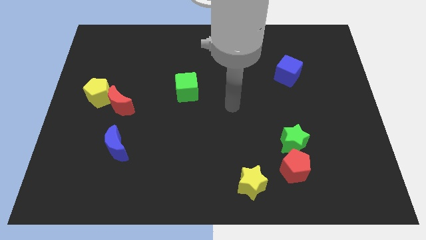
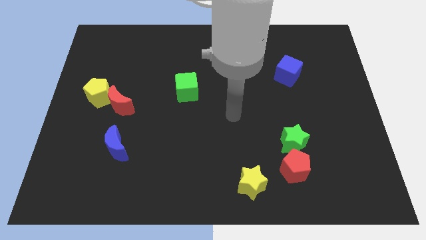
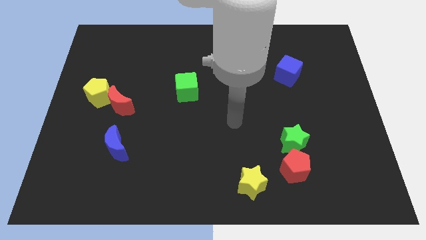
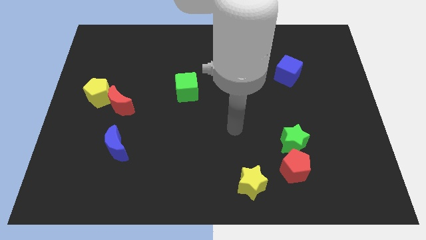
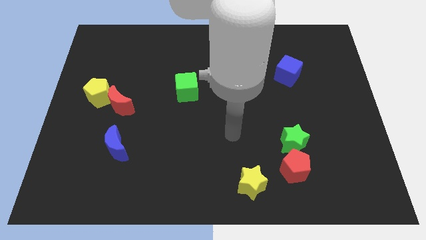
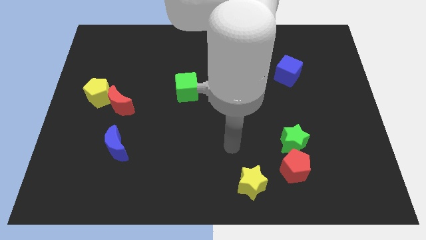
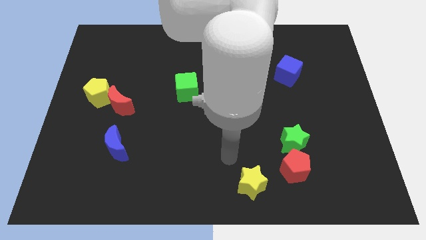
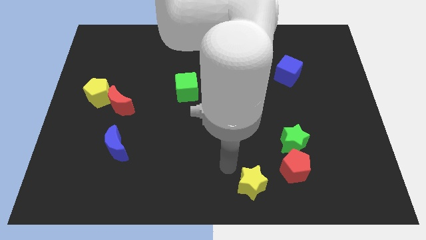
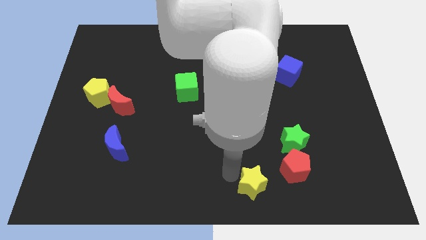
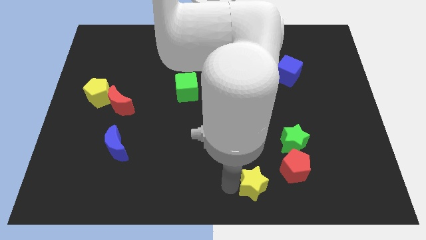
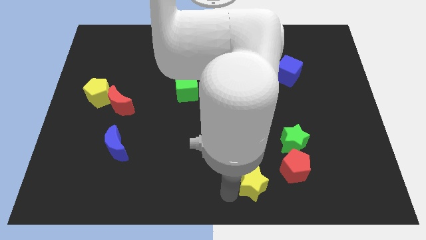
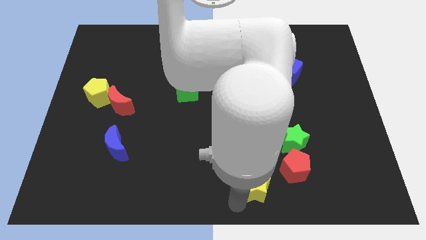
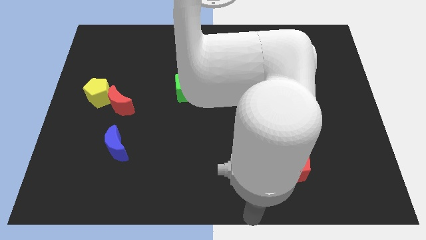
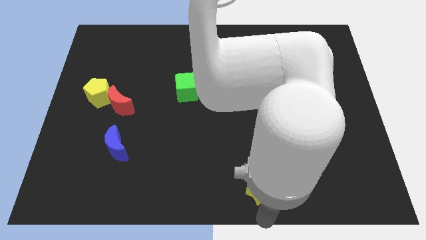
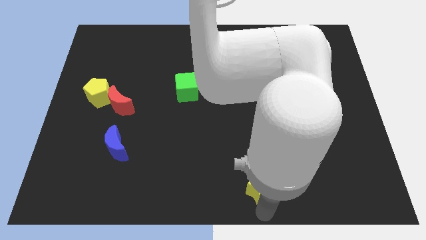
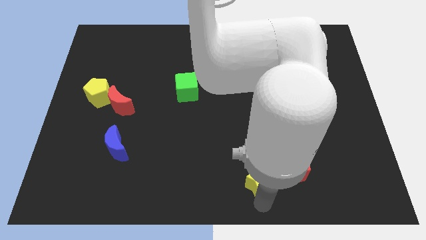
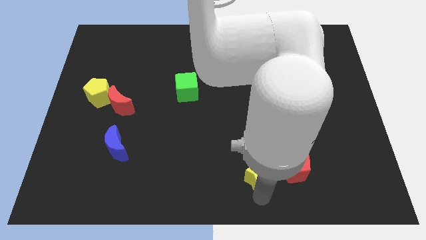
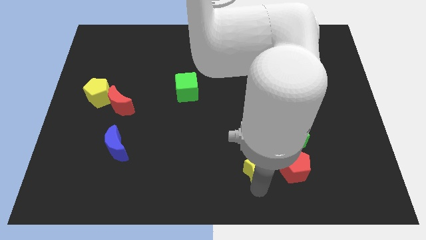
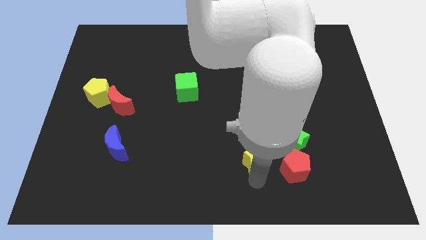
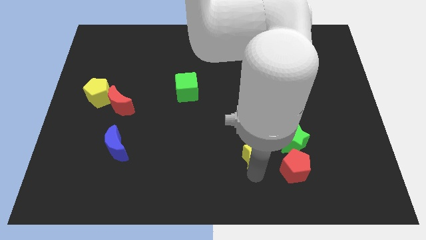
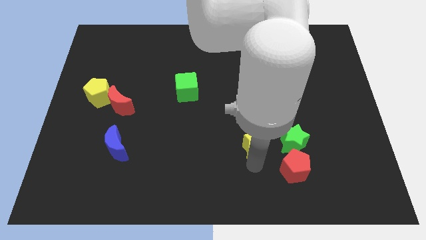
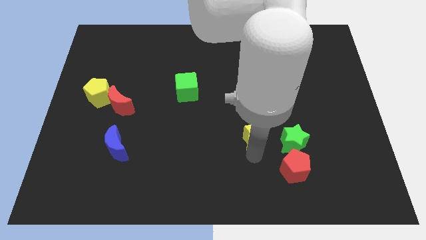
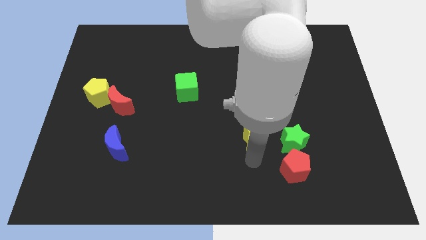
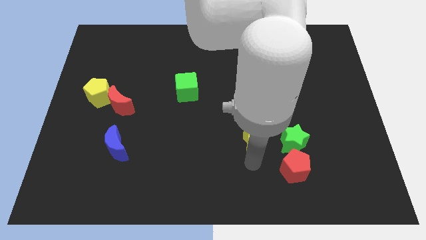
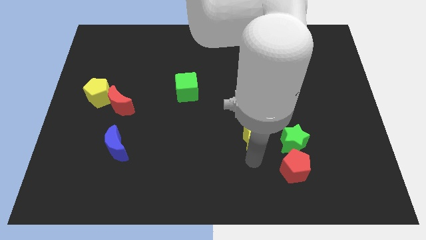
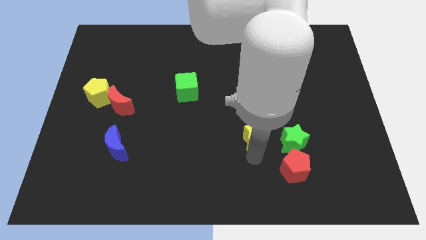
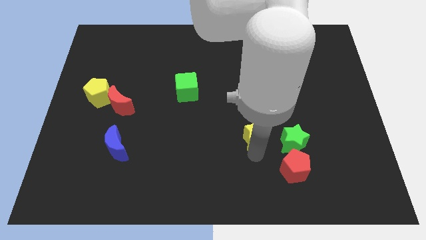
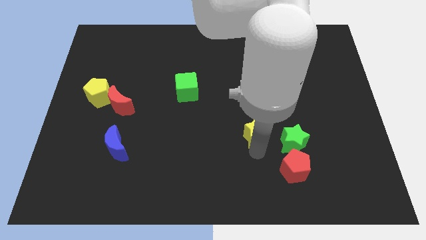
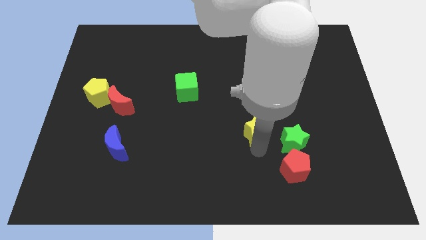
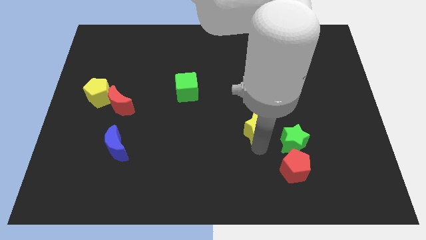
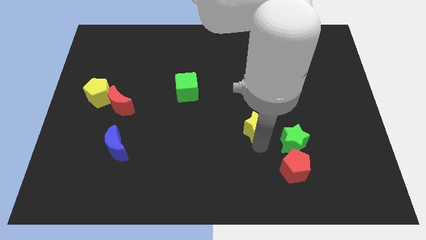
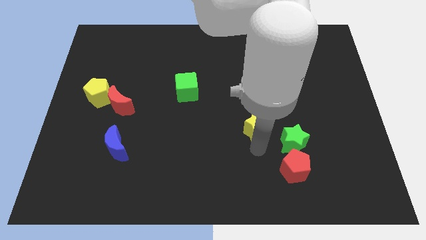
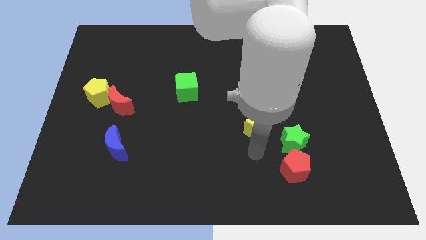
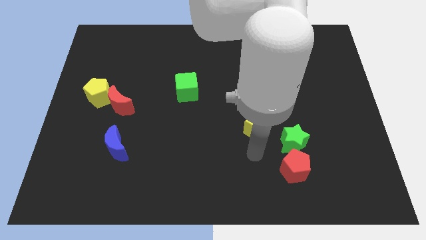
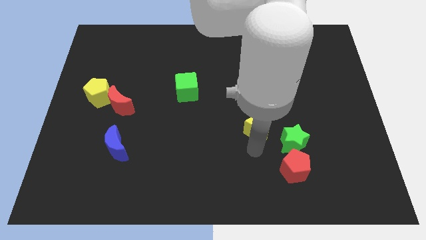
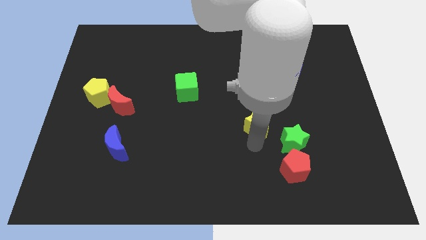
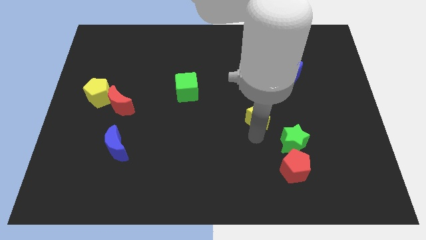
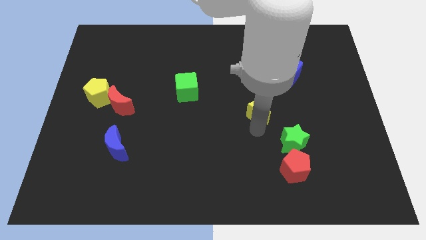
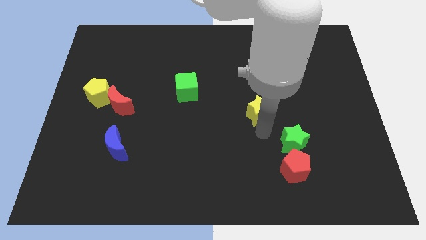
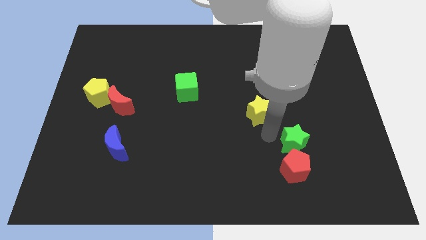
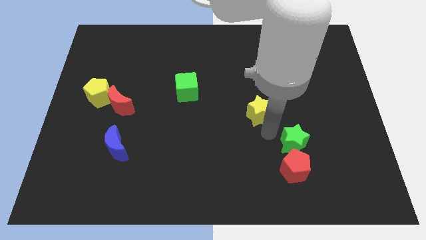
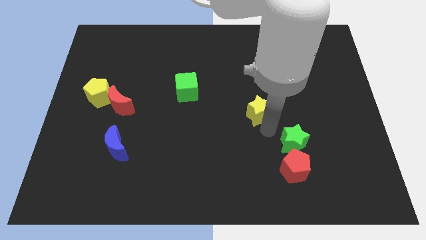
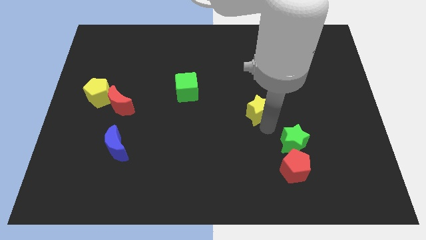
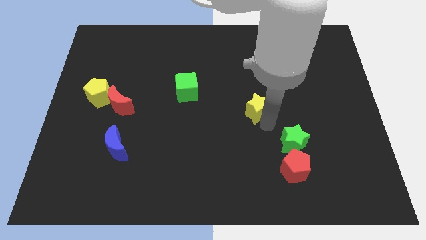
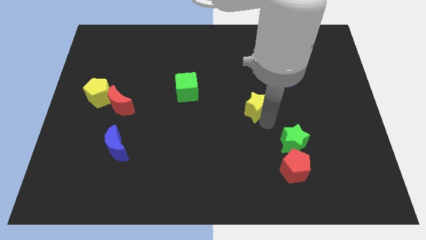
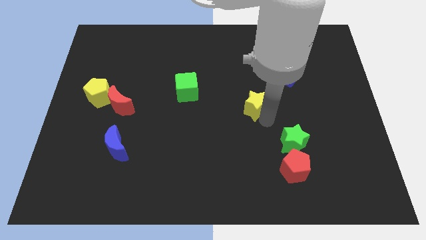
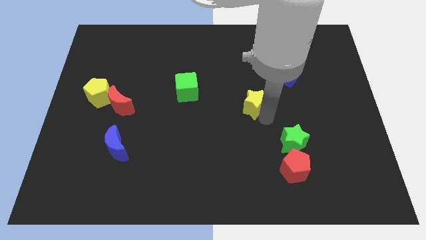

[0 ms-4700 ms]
push the yellow star upwards

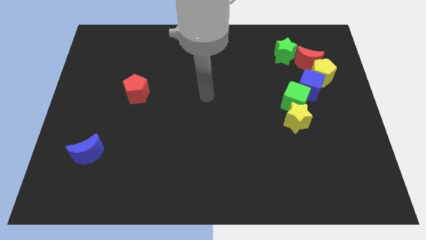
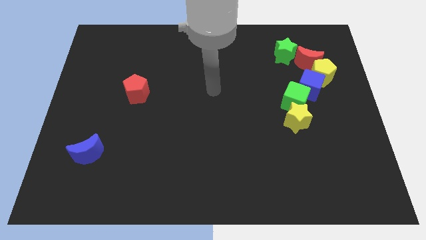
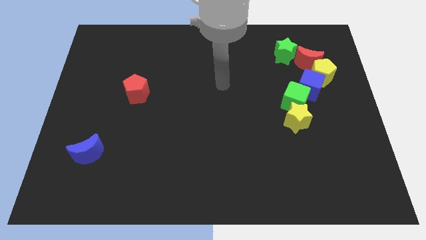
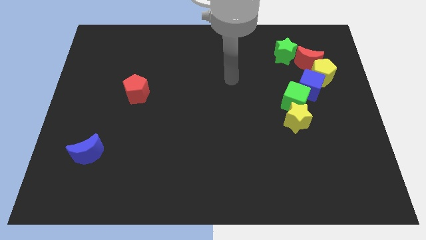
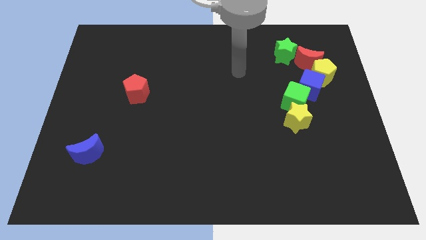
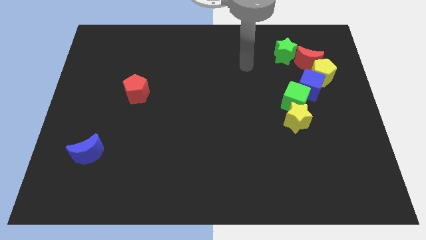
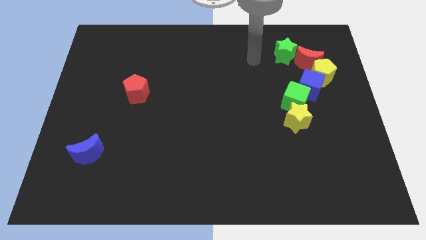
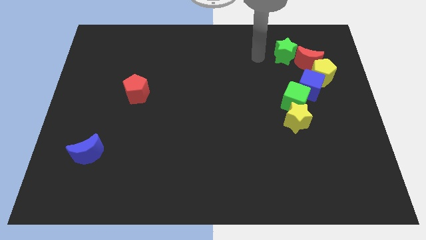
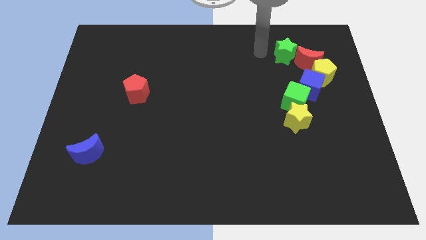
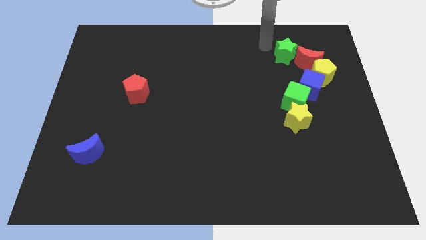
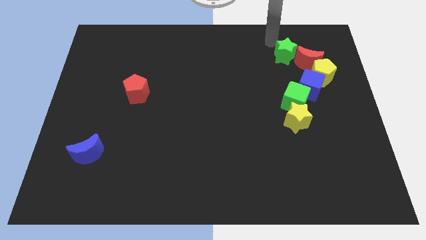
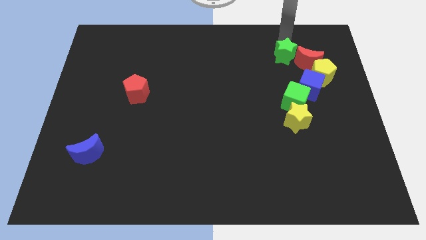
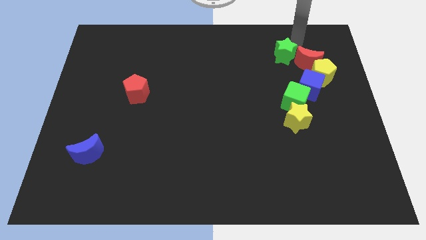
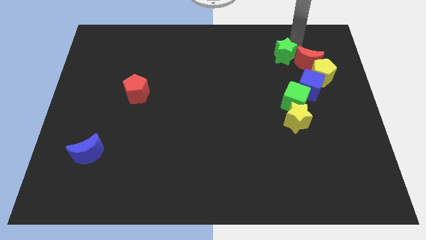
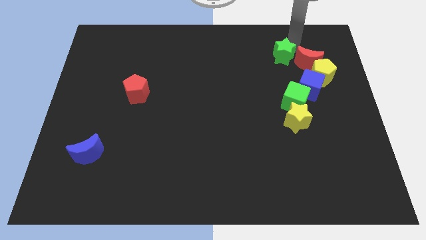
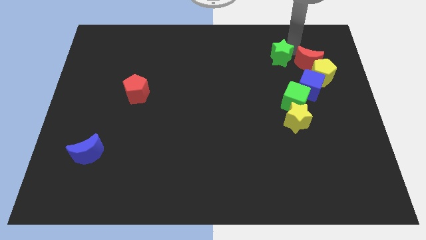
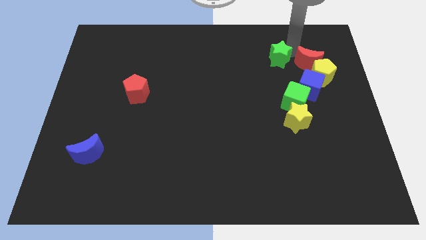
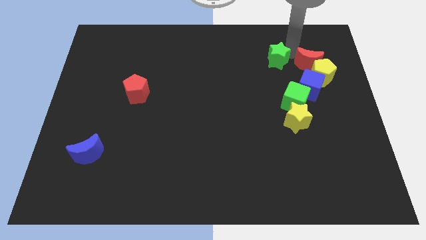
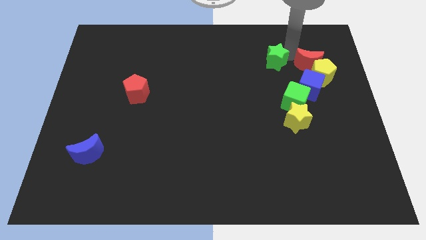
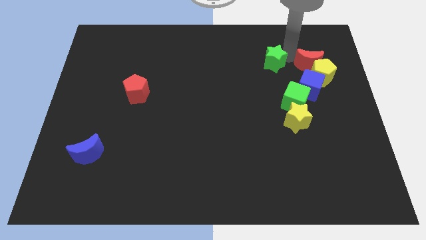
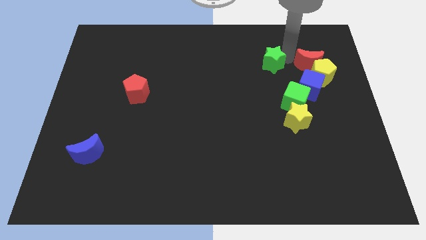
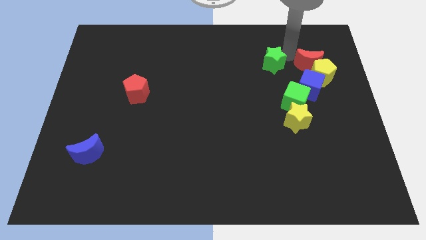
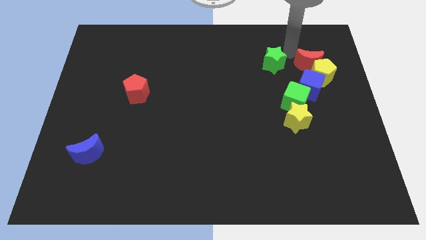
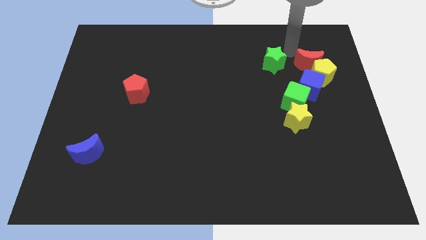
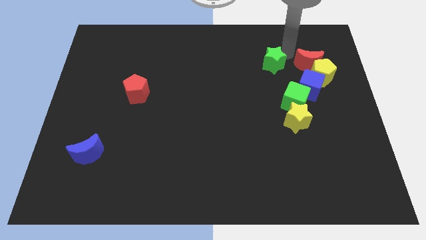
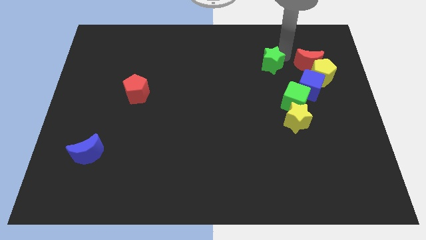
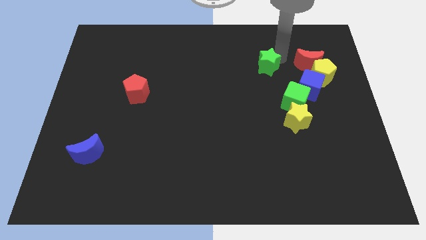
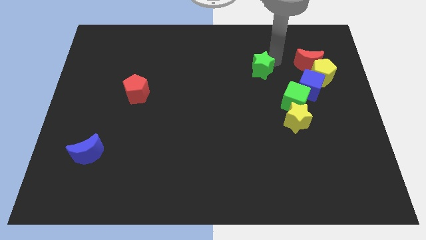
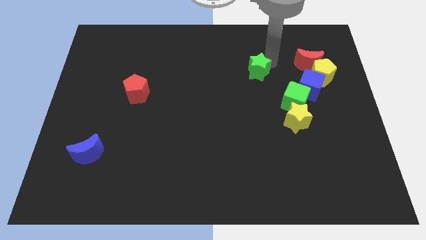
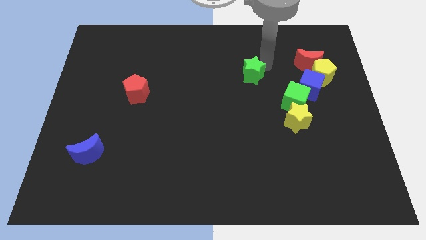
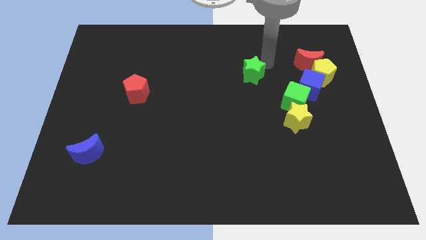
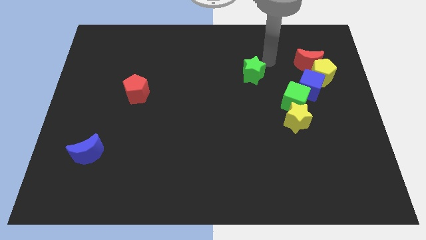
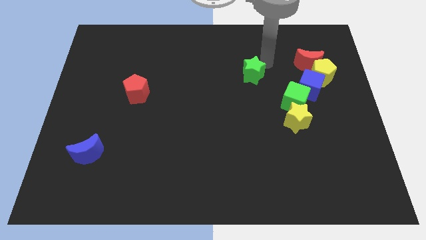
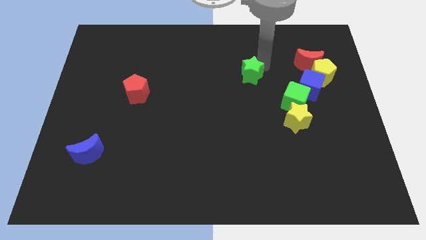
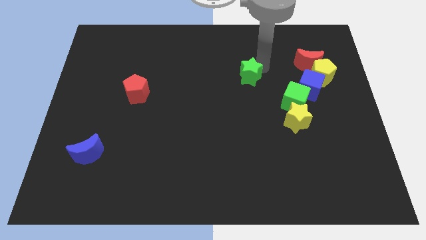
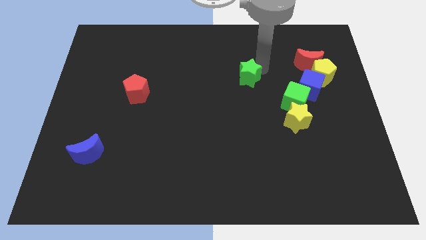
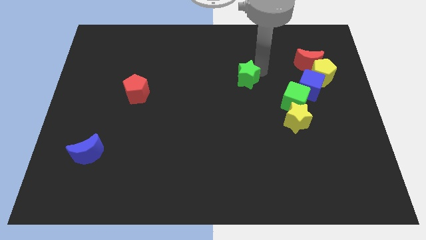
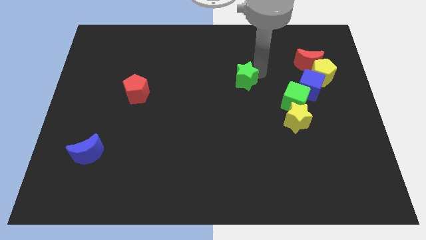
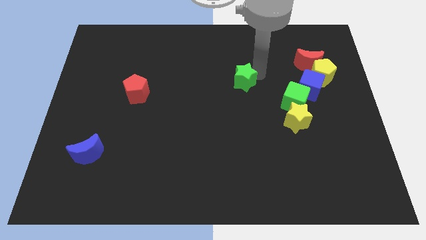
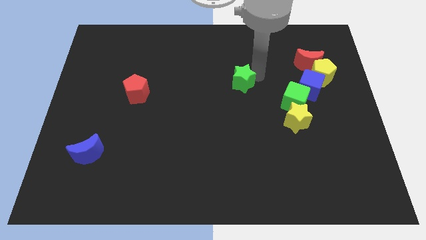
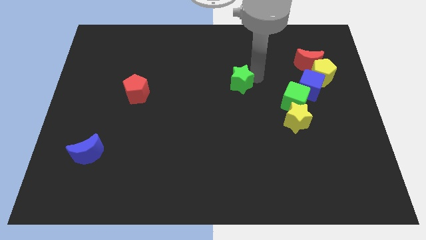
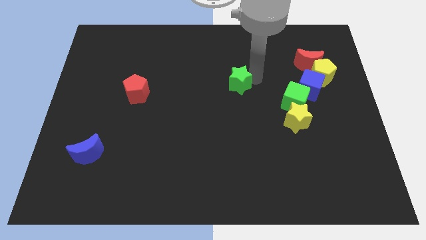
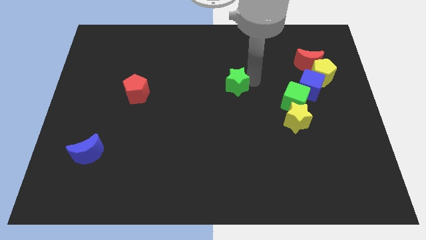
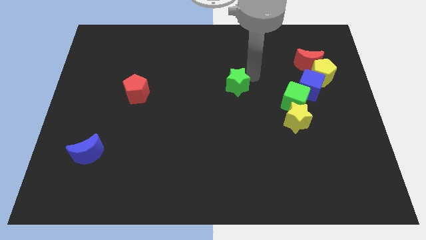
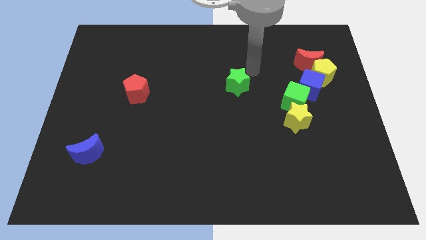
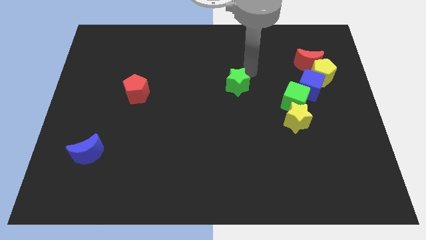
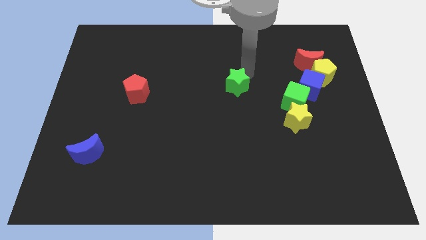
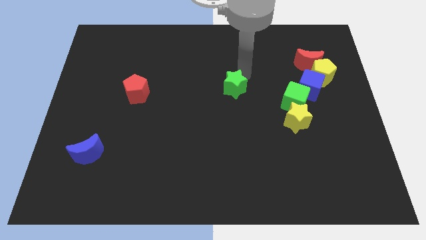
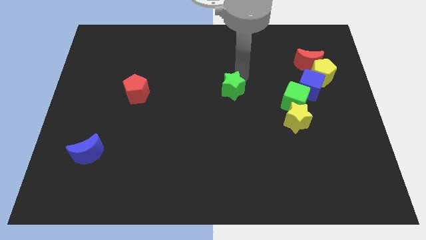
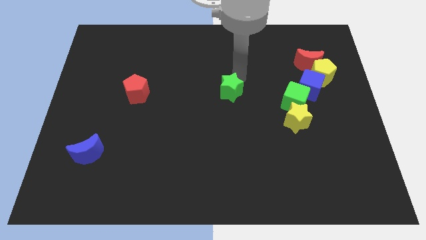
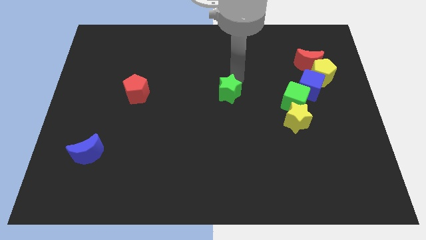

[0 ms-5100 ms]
push the green star diagonally down and to the left
